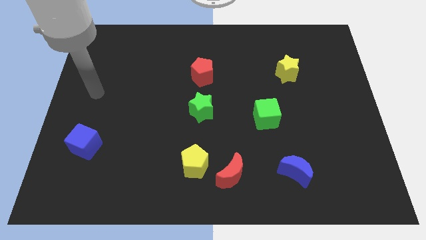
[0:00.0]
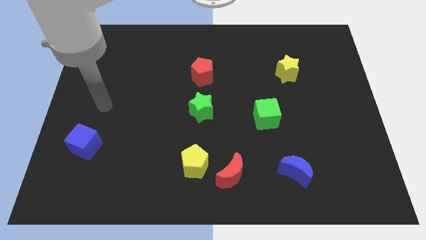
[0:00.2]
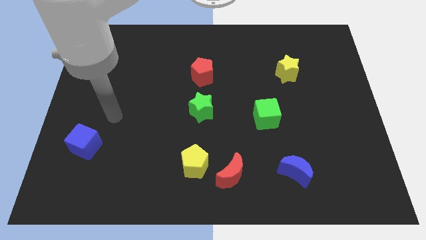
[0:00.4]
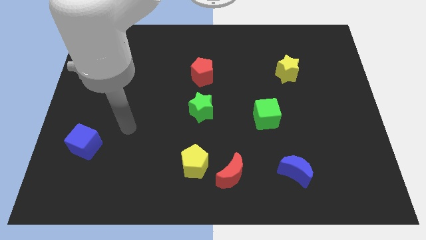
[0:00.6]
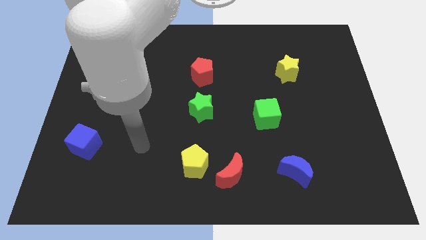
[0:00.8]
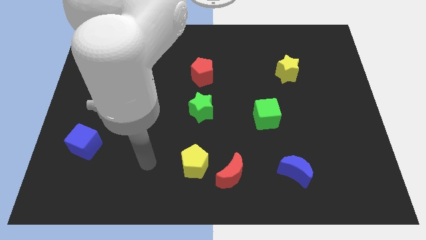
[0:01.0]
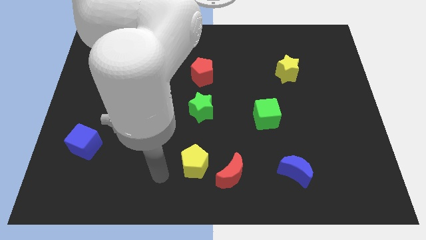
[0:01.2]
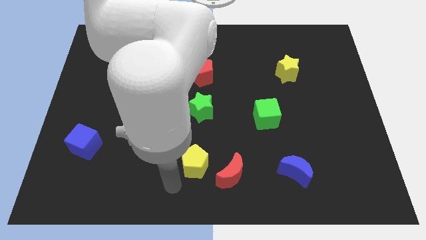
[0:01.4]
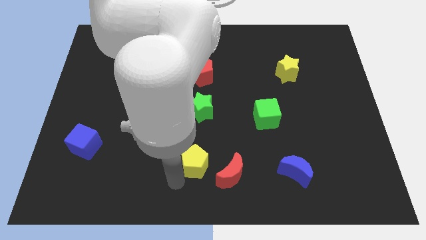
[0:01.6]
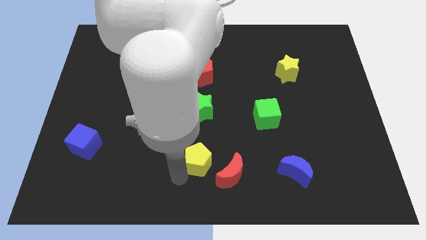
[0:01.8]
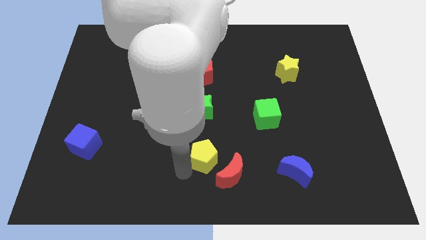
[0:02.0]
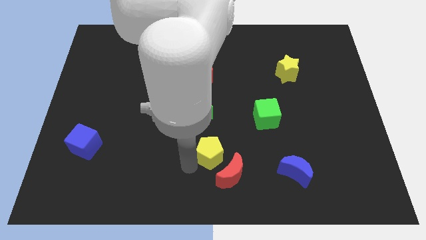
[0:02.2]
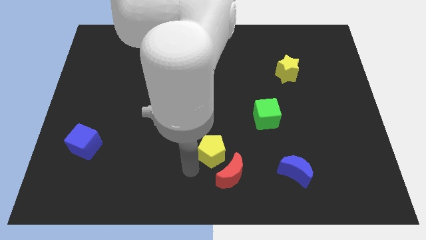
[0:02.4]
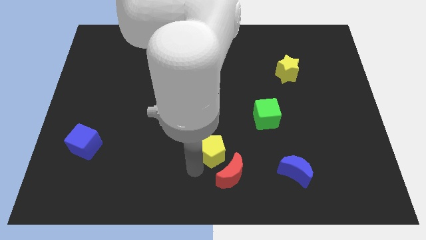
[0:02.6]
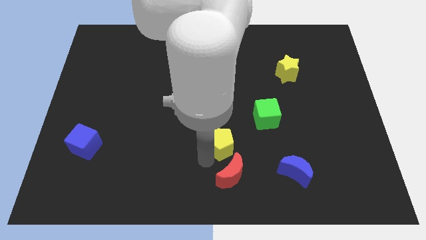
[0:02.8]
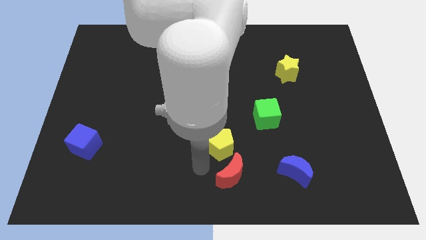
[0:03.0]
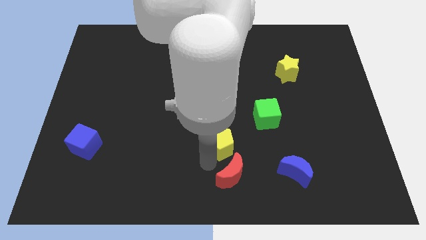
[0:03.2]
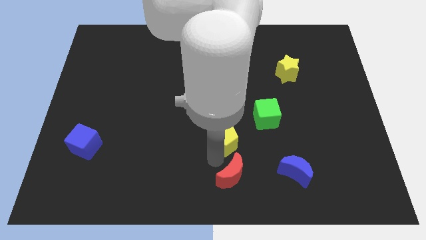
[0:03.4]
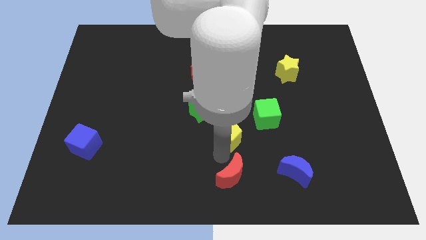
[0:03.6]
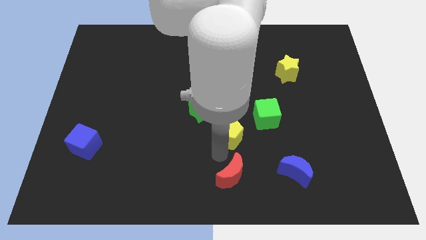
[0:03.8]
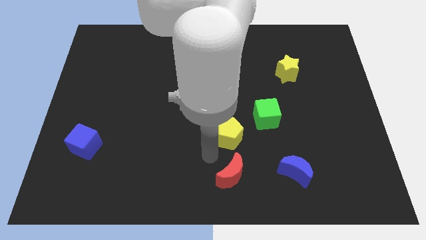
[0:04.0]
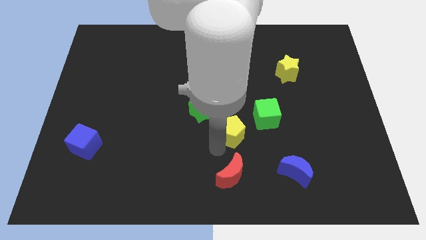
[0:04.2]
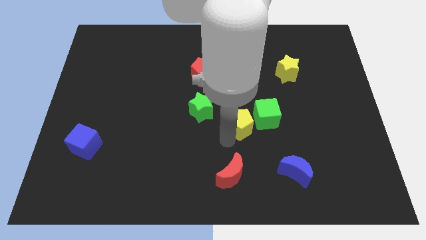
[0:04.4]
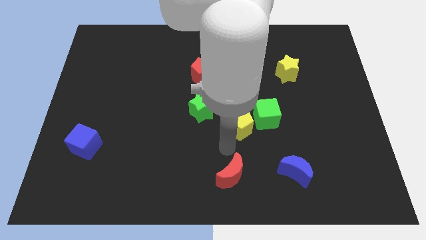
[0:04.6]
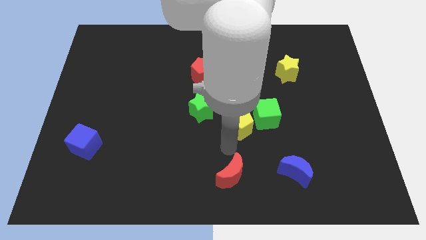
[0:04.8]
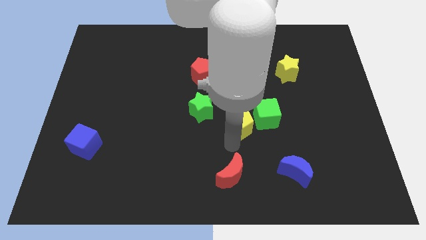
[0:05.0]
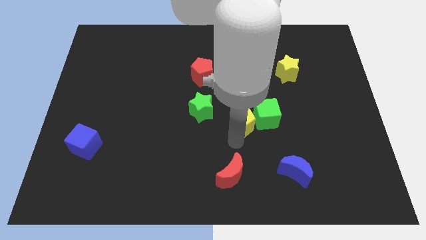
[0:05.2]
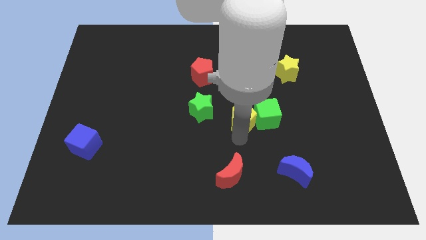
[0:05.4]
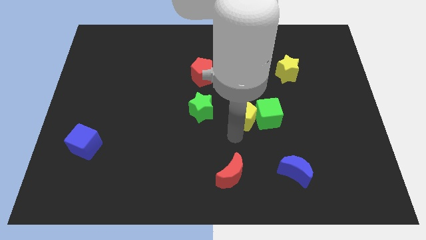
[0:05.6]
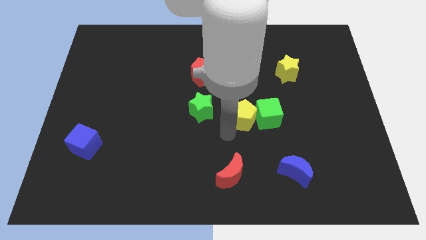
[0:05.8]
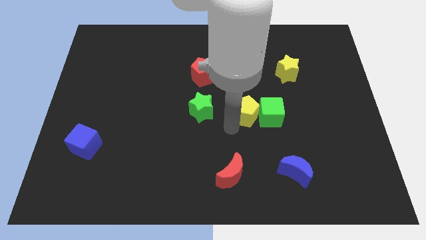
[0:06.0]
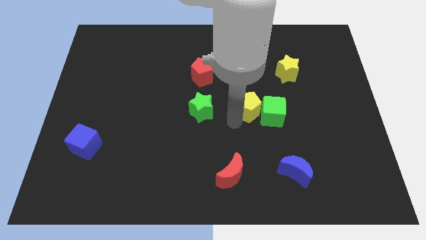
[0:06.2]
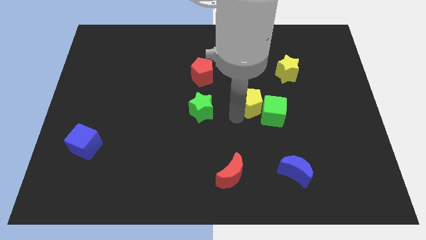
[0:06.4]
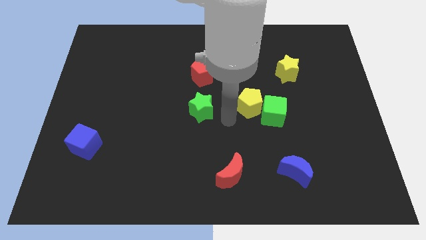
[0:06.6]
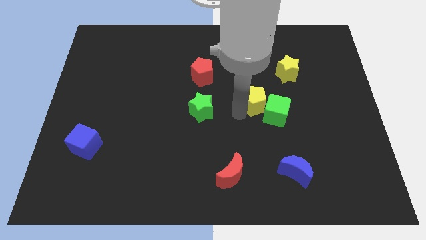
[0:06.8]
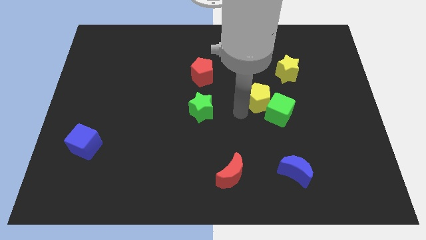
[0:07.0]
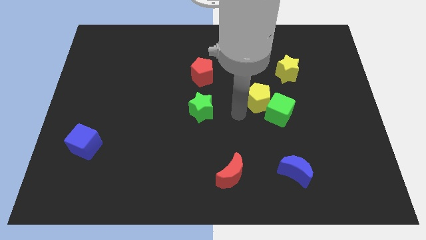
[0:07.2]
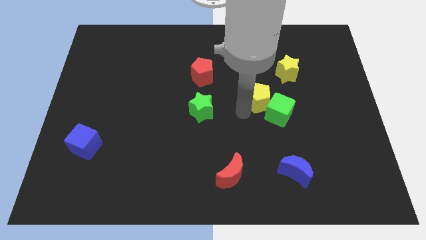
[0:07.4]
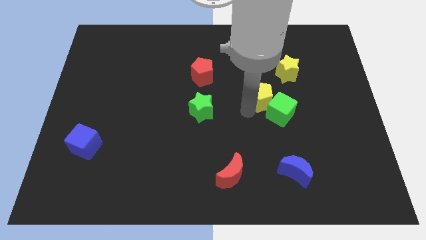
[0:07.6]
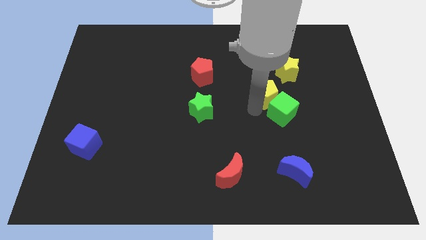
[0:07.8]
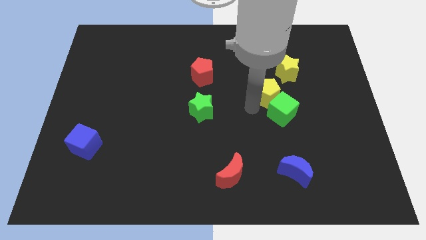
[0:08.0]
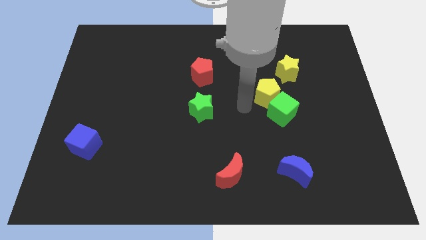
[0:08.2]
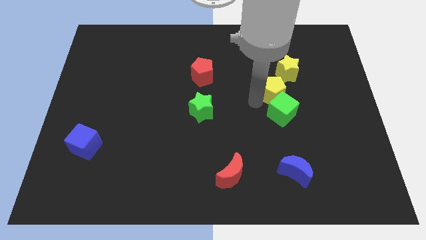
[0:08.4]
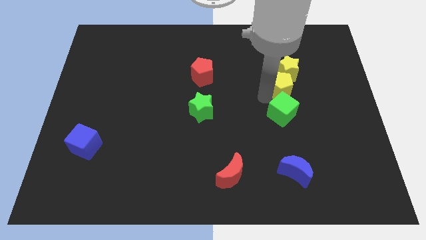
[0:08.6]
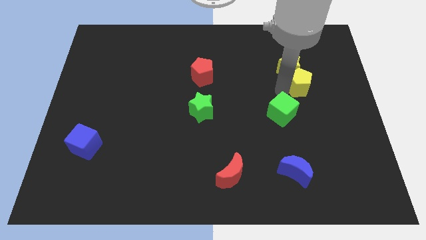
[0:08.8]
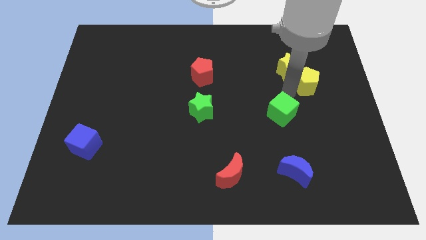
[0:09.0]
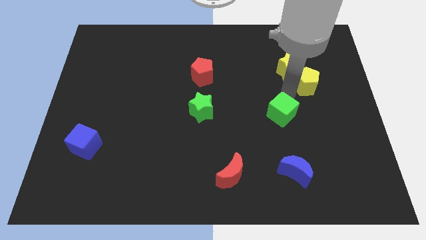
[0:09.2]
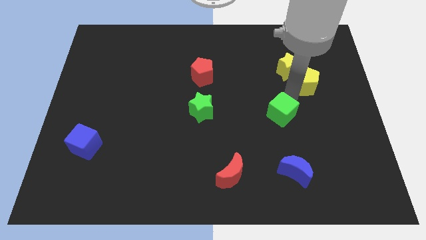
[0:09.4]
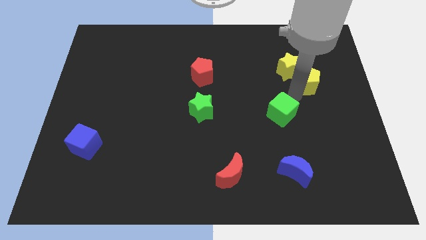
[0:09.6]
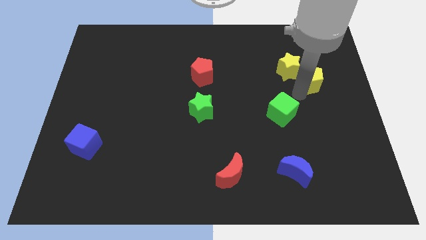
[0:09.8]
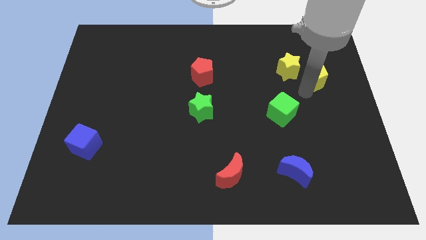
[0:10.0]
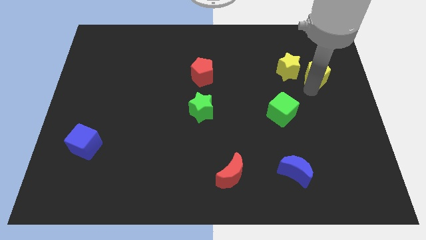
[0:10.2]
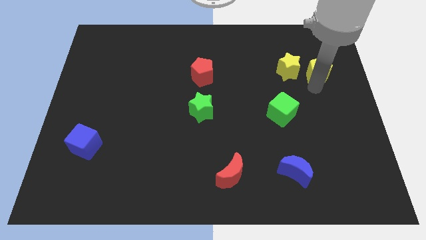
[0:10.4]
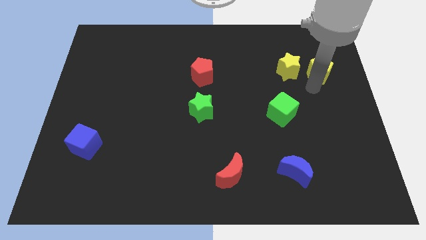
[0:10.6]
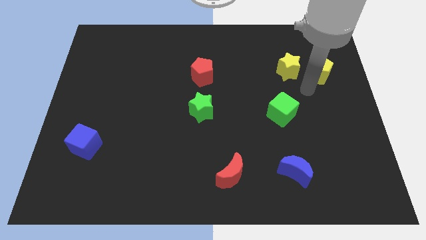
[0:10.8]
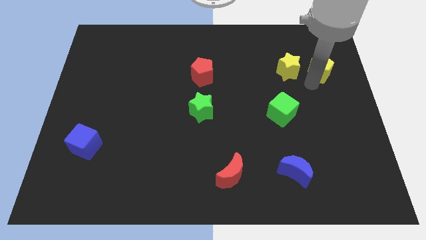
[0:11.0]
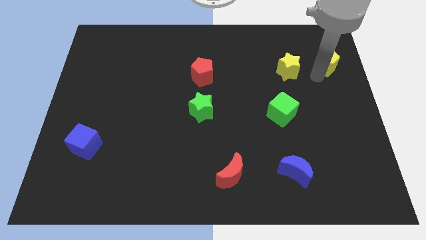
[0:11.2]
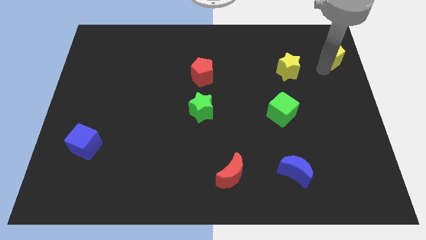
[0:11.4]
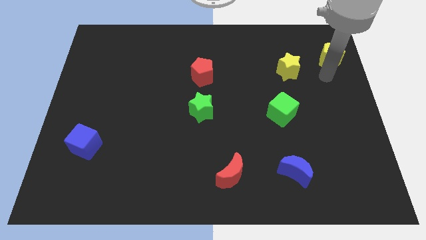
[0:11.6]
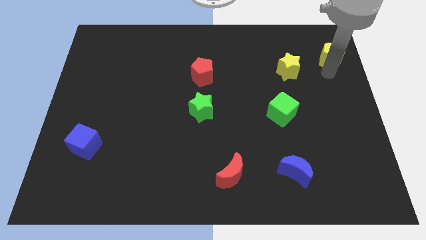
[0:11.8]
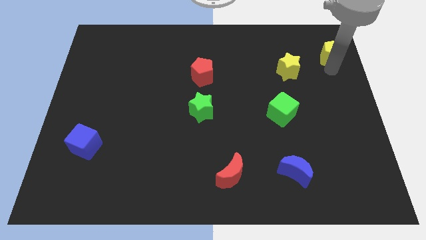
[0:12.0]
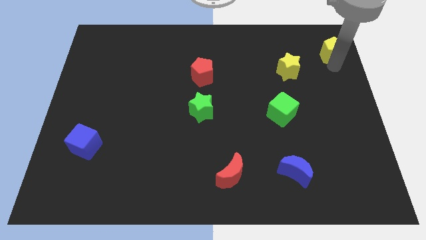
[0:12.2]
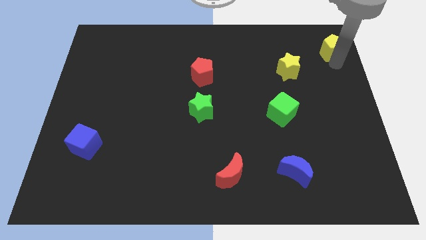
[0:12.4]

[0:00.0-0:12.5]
move the yellow pentagon to the upper right corner
